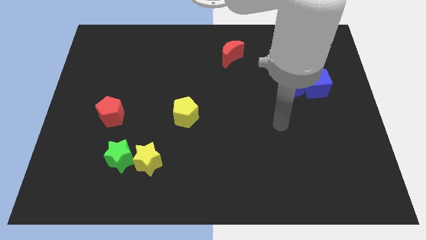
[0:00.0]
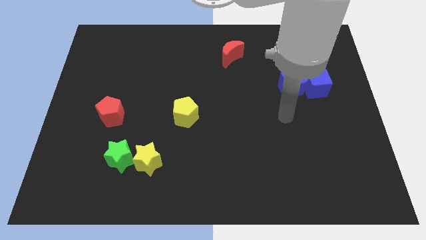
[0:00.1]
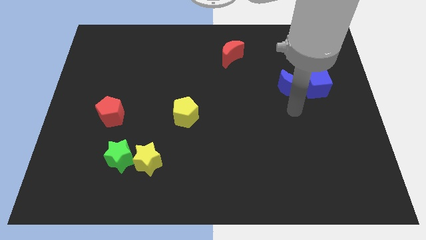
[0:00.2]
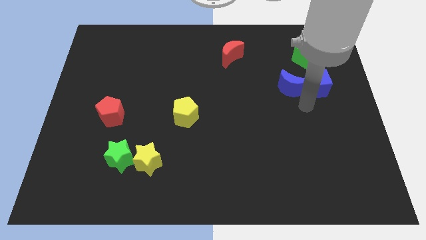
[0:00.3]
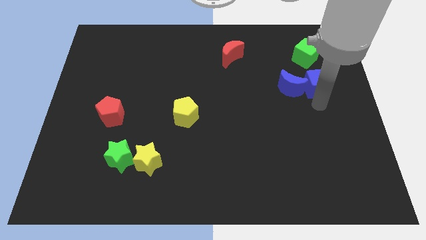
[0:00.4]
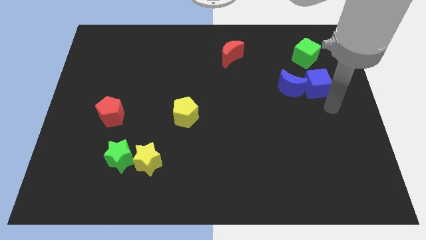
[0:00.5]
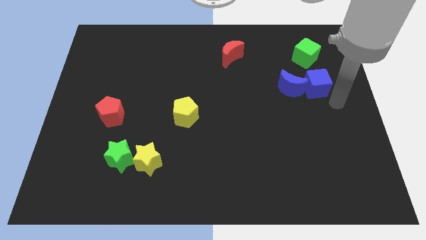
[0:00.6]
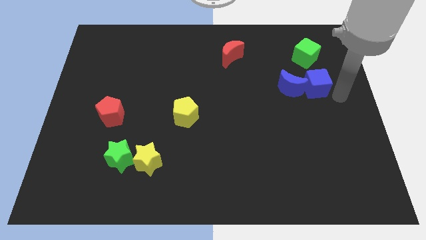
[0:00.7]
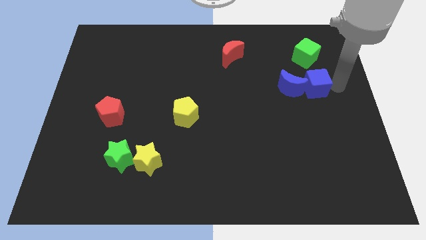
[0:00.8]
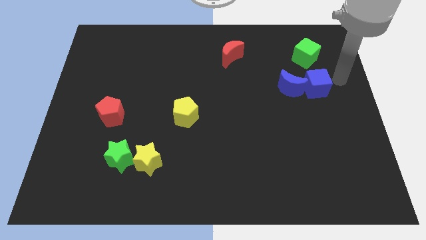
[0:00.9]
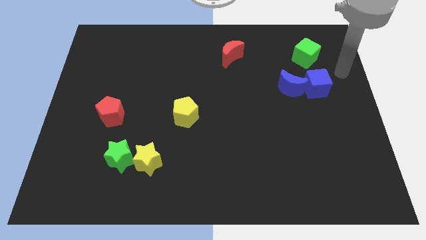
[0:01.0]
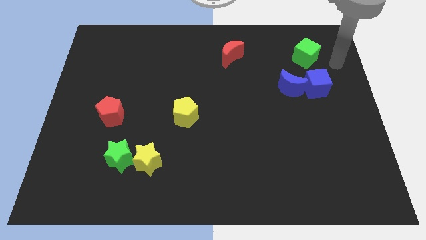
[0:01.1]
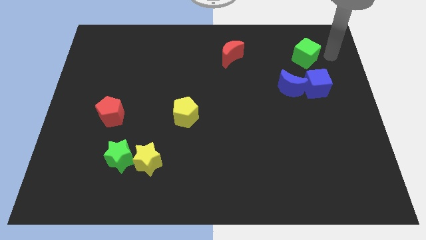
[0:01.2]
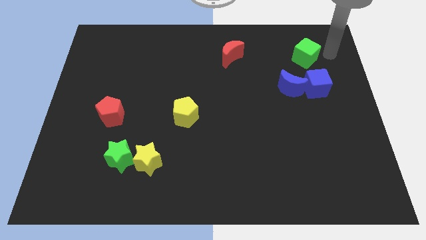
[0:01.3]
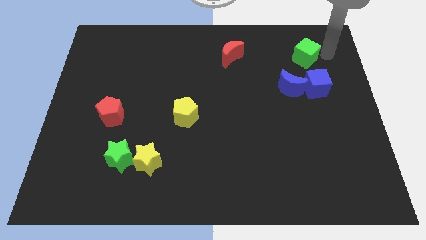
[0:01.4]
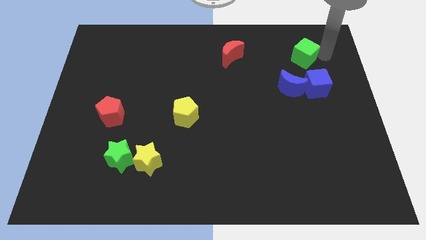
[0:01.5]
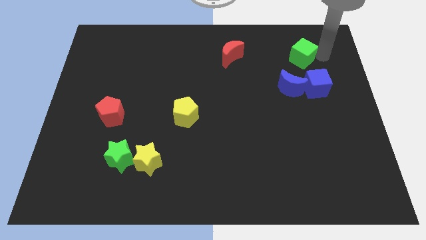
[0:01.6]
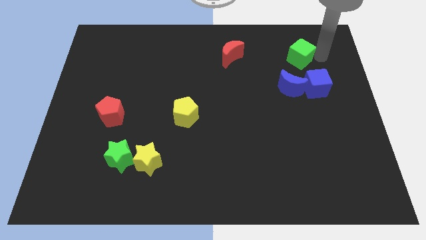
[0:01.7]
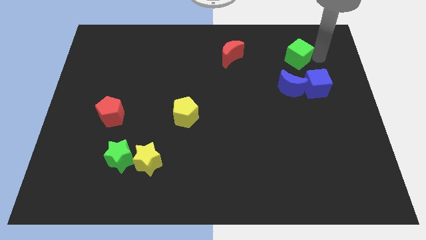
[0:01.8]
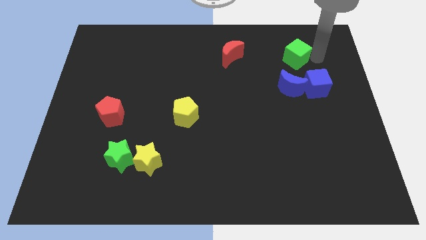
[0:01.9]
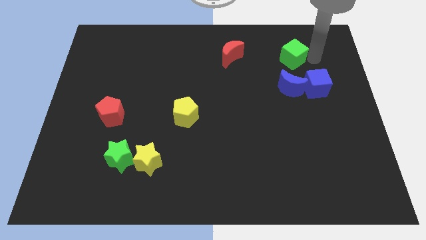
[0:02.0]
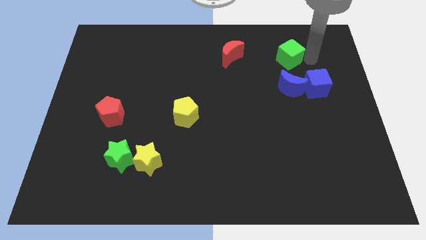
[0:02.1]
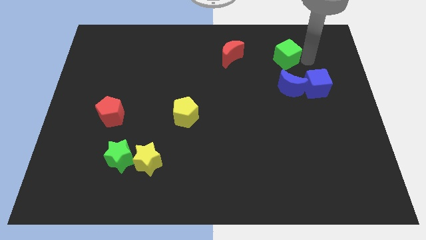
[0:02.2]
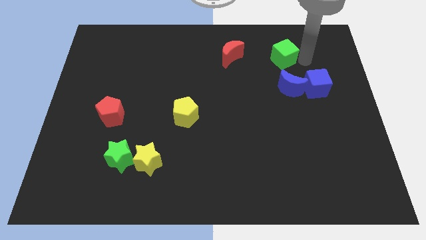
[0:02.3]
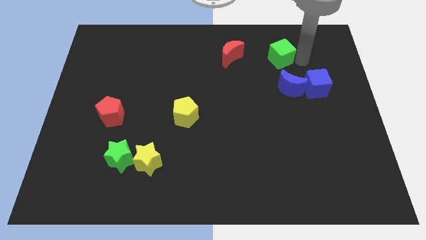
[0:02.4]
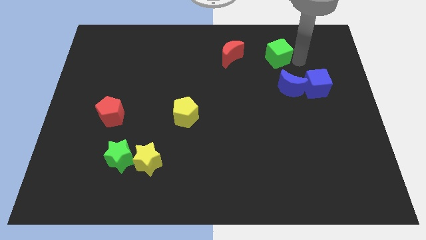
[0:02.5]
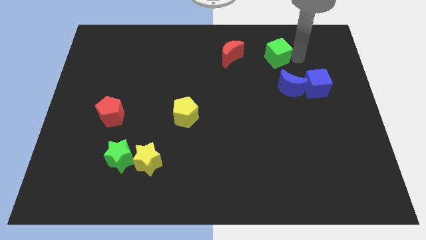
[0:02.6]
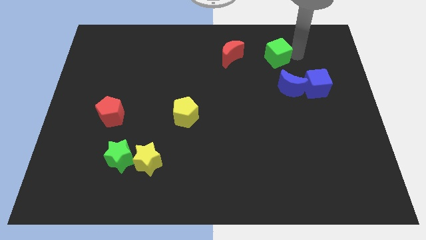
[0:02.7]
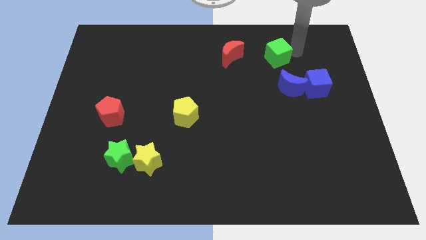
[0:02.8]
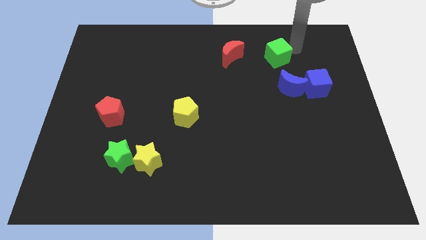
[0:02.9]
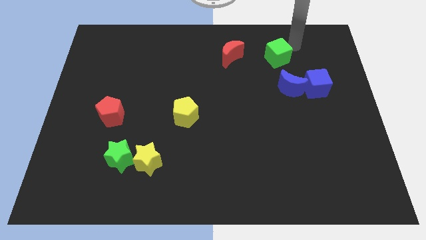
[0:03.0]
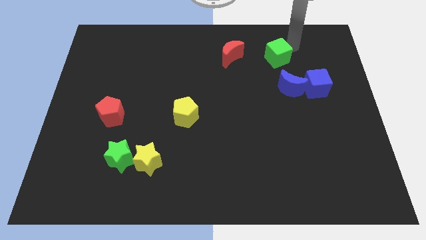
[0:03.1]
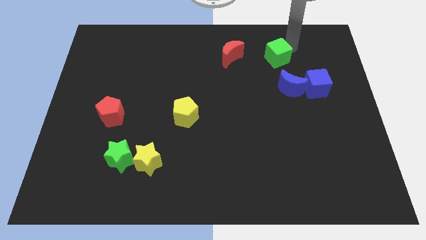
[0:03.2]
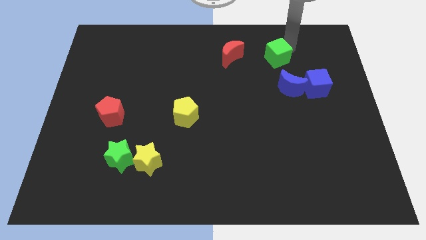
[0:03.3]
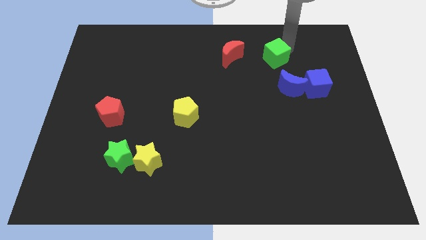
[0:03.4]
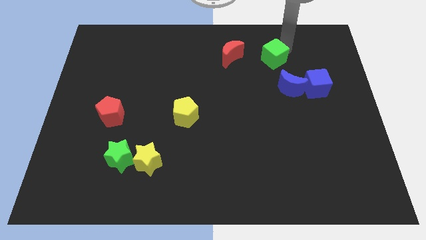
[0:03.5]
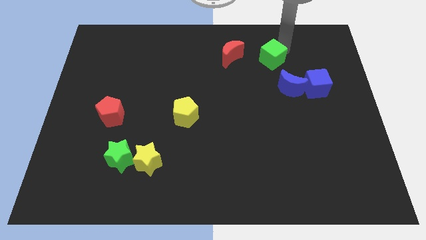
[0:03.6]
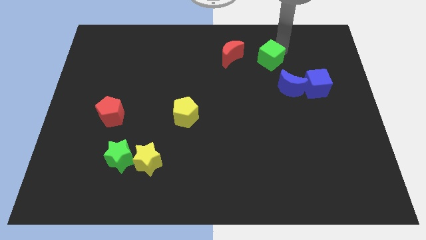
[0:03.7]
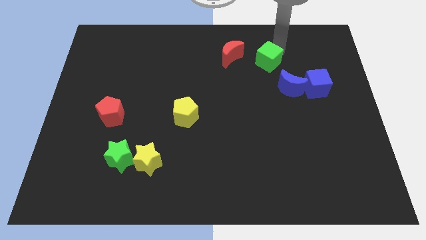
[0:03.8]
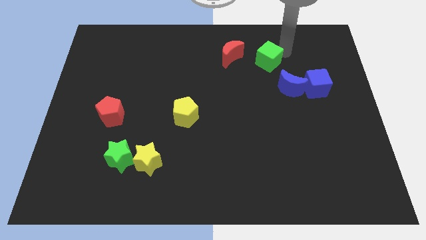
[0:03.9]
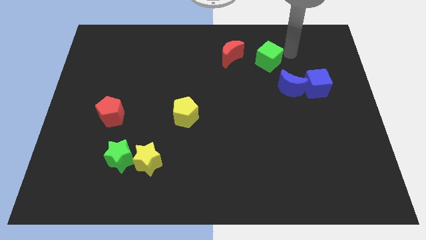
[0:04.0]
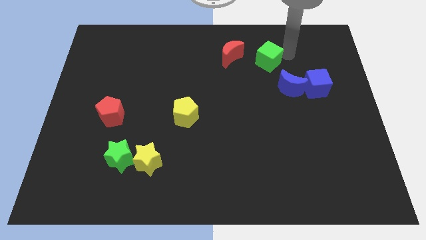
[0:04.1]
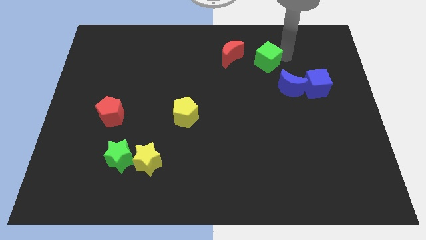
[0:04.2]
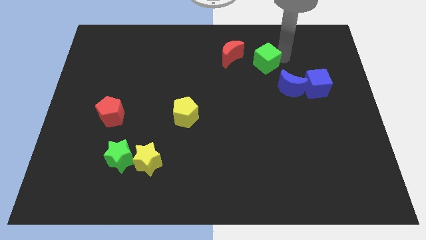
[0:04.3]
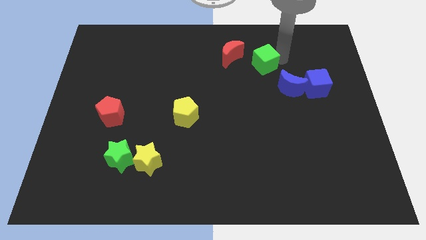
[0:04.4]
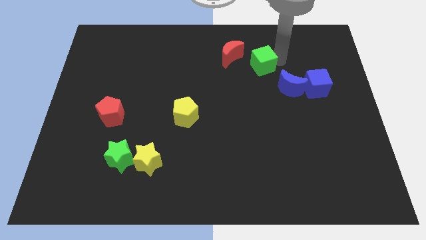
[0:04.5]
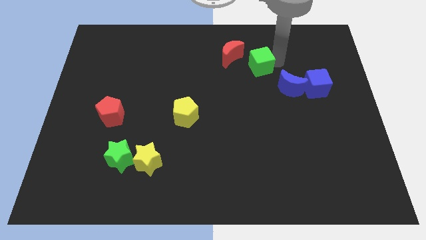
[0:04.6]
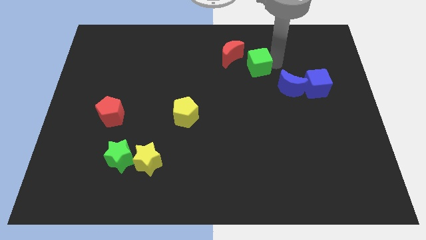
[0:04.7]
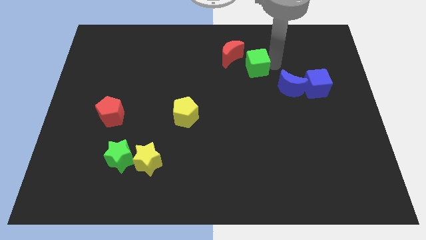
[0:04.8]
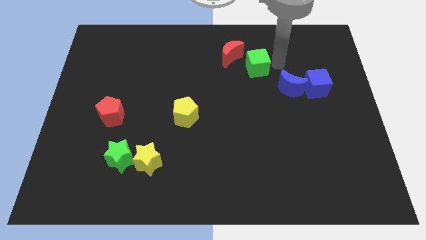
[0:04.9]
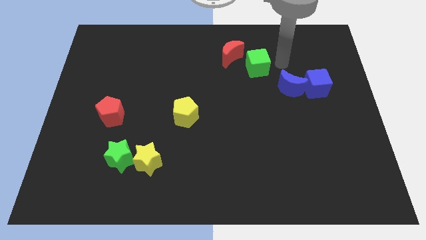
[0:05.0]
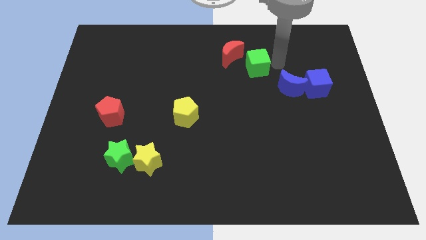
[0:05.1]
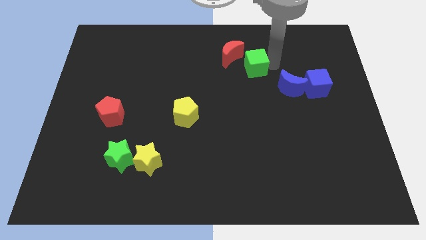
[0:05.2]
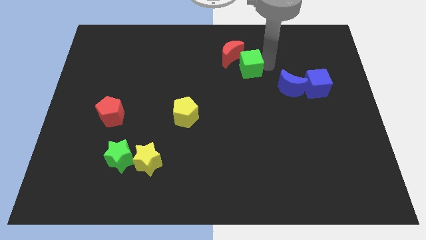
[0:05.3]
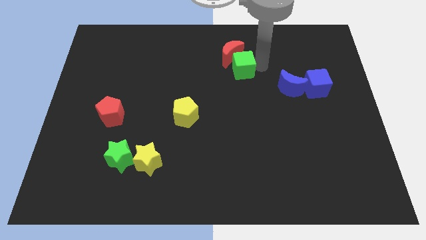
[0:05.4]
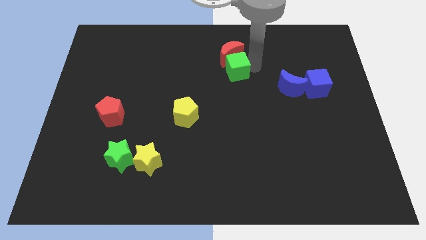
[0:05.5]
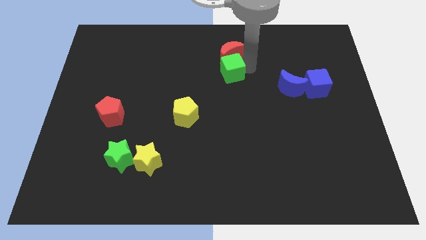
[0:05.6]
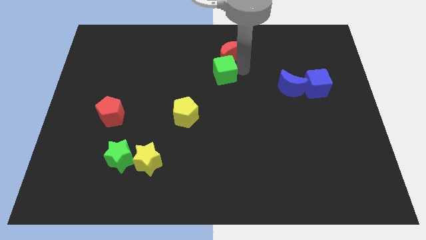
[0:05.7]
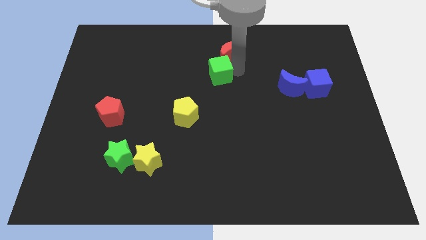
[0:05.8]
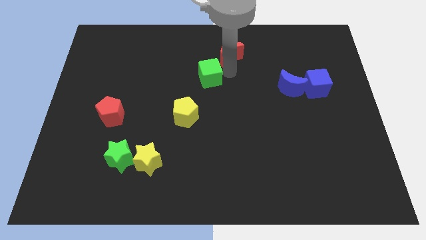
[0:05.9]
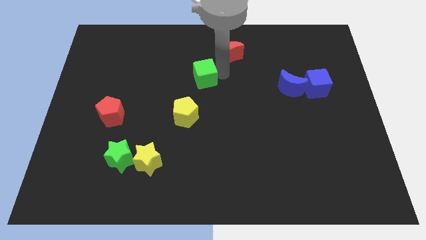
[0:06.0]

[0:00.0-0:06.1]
push the green cube to the top of the yellow pentagon

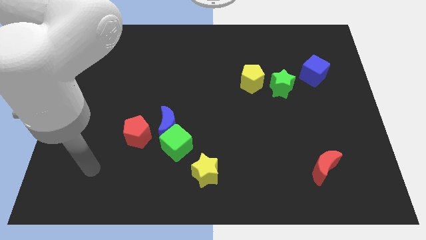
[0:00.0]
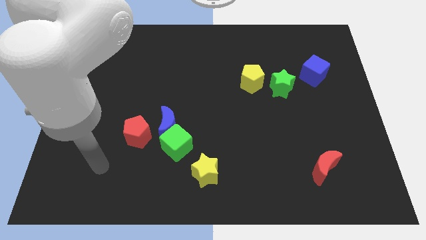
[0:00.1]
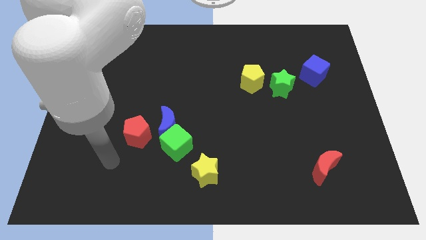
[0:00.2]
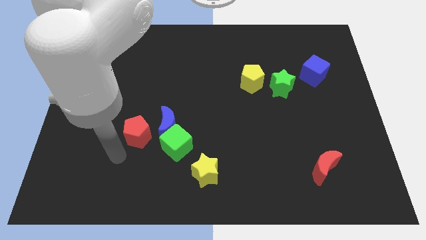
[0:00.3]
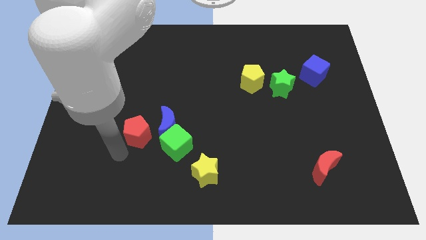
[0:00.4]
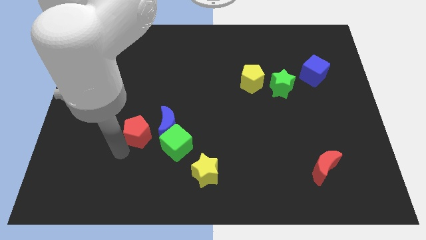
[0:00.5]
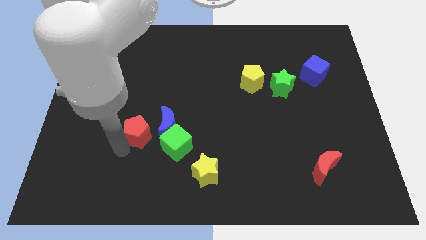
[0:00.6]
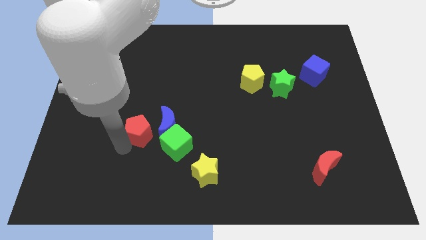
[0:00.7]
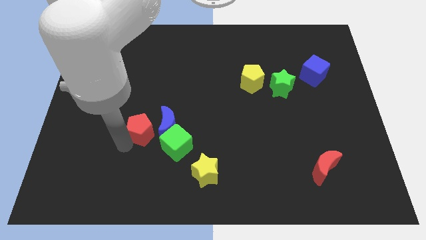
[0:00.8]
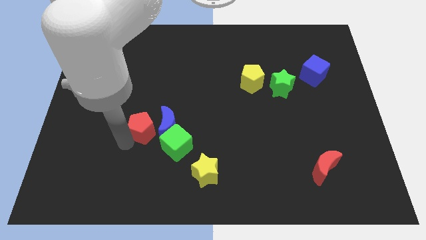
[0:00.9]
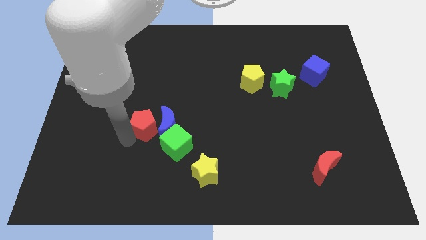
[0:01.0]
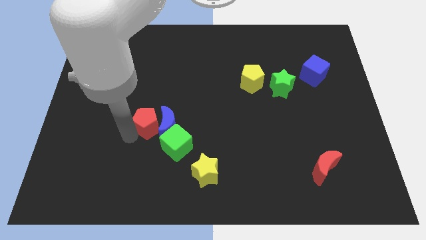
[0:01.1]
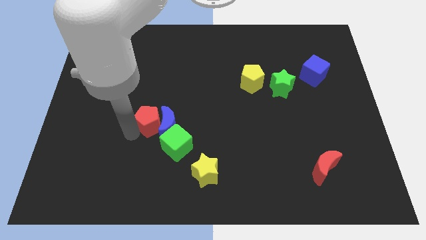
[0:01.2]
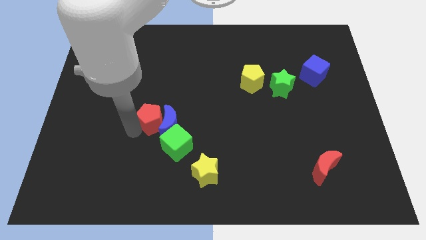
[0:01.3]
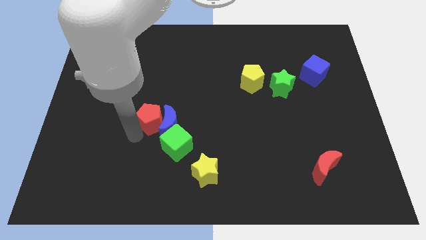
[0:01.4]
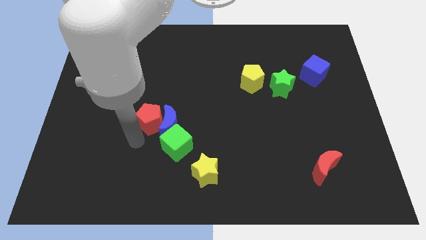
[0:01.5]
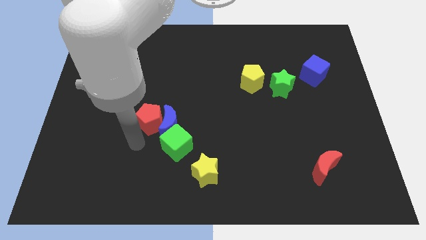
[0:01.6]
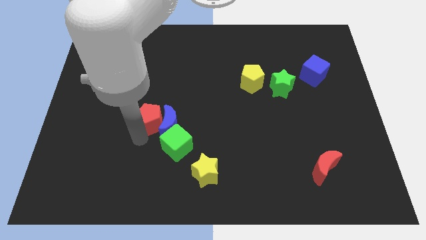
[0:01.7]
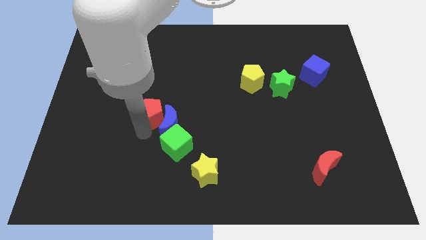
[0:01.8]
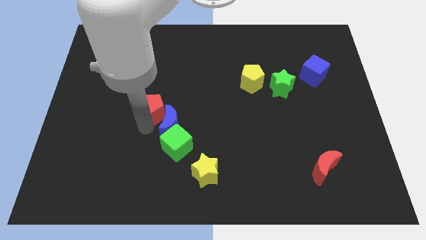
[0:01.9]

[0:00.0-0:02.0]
move the red pentagon to the top of the blue moon
